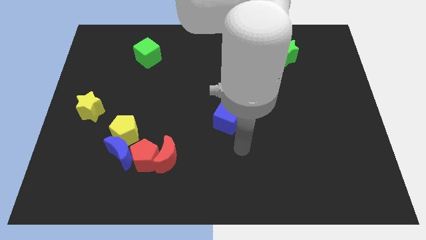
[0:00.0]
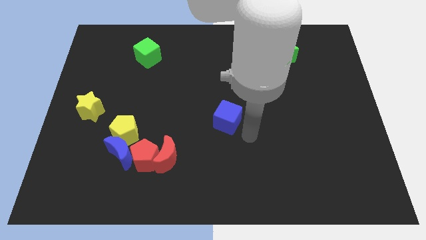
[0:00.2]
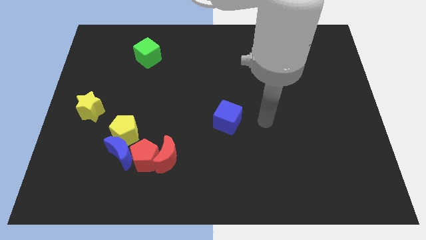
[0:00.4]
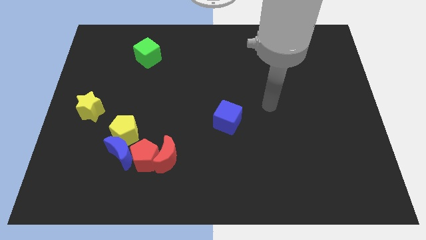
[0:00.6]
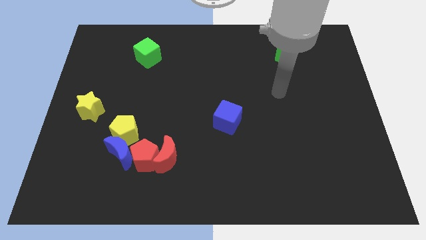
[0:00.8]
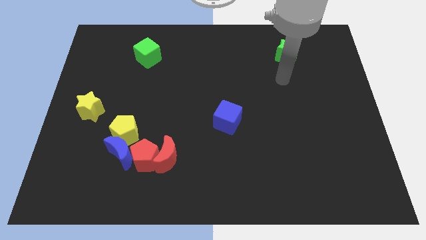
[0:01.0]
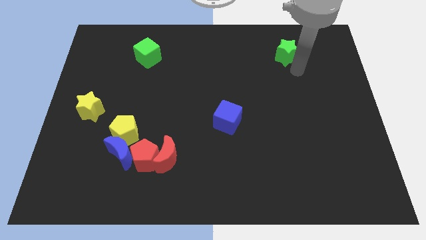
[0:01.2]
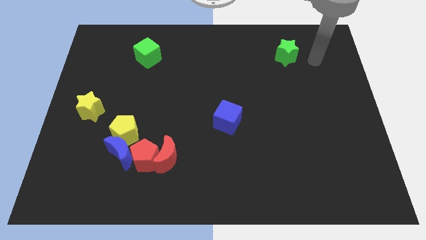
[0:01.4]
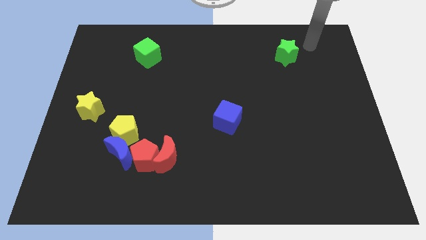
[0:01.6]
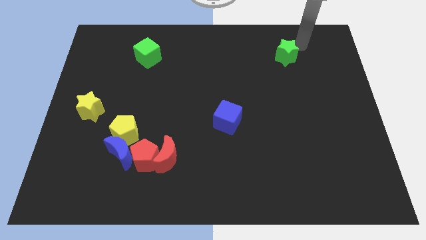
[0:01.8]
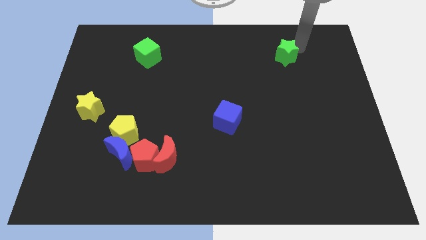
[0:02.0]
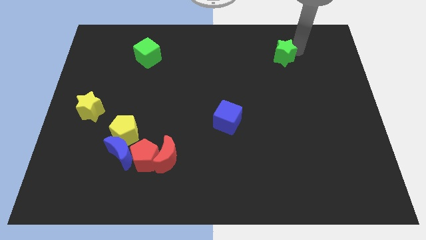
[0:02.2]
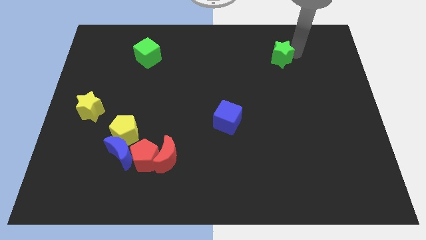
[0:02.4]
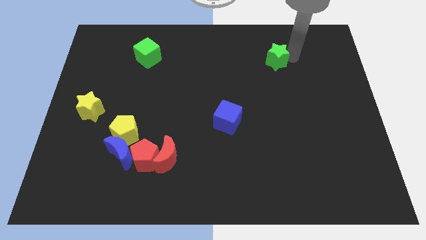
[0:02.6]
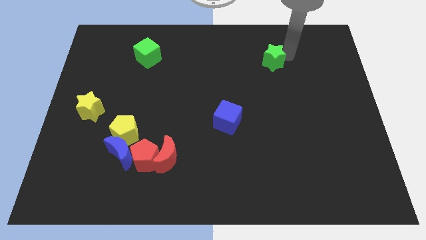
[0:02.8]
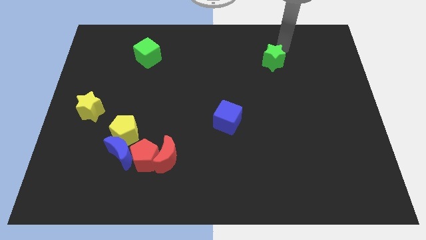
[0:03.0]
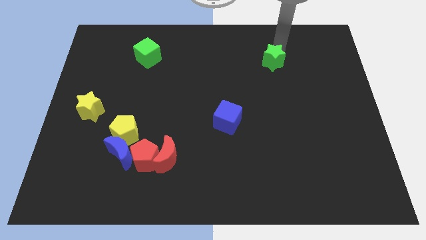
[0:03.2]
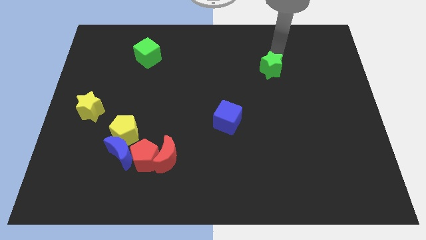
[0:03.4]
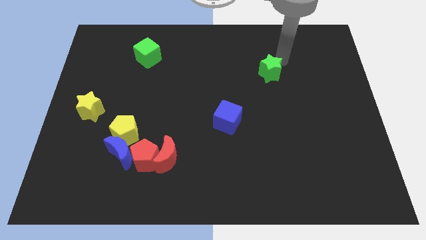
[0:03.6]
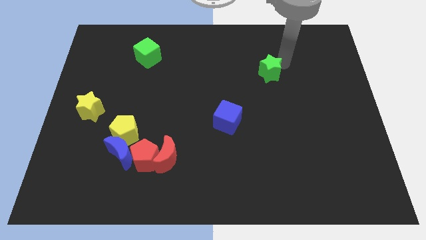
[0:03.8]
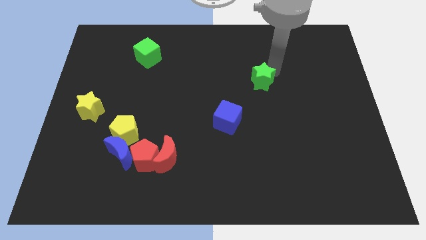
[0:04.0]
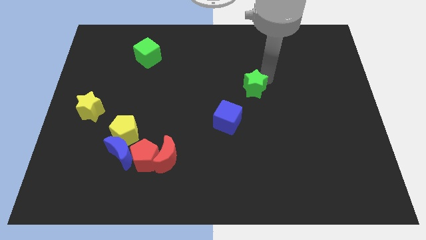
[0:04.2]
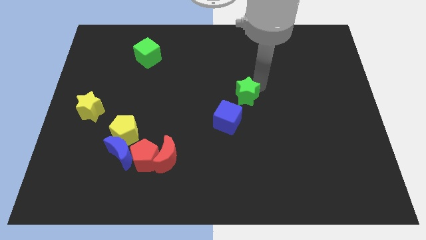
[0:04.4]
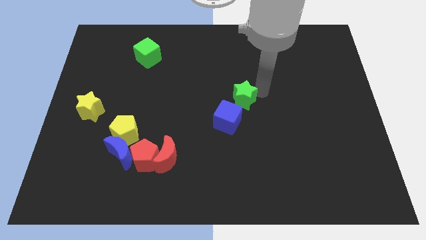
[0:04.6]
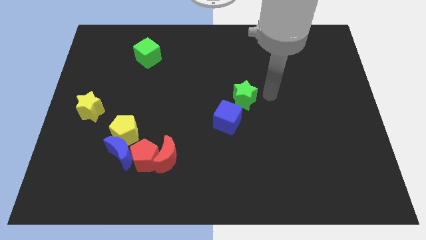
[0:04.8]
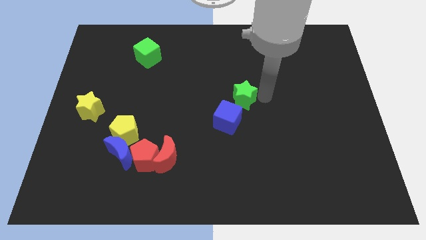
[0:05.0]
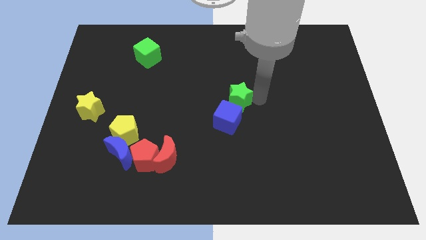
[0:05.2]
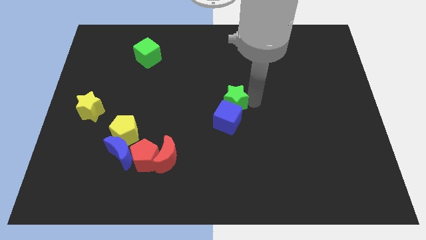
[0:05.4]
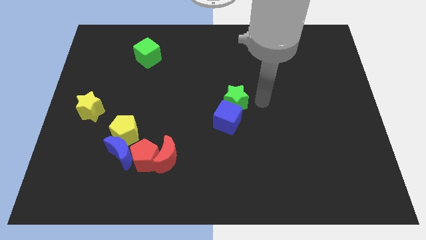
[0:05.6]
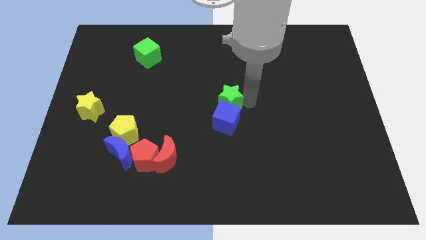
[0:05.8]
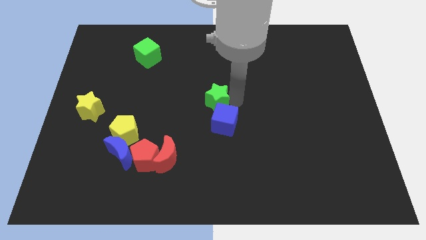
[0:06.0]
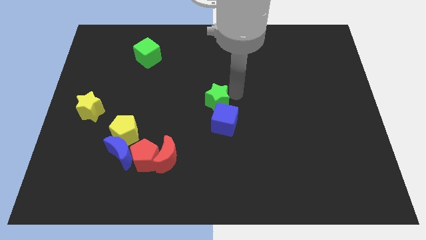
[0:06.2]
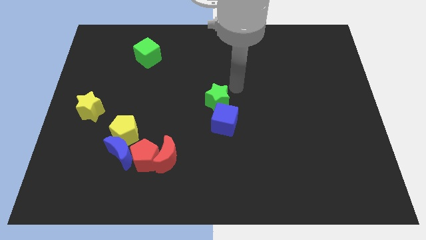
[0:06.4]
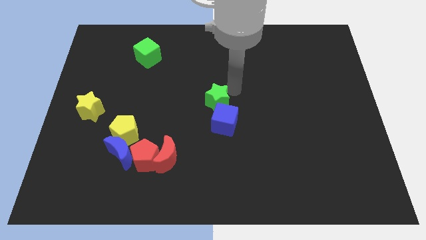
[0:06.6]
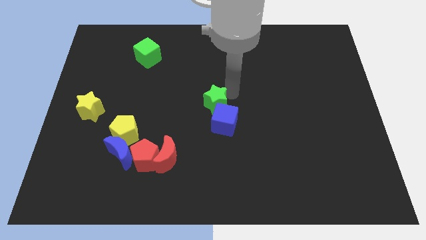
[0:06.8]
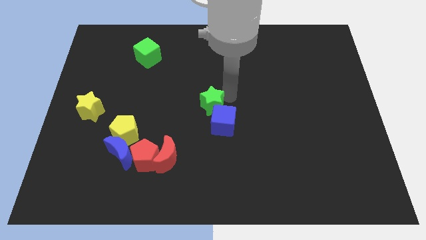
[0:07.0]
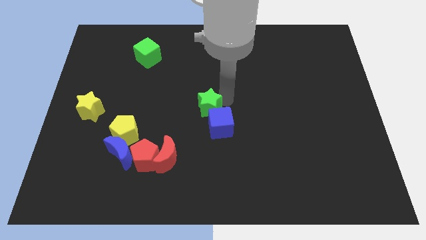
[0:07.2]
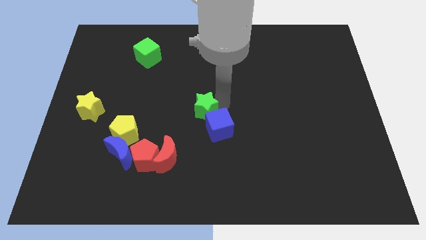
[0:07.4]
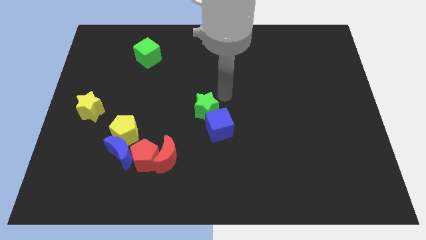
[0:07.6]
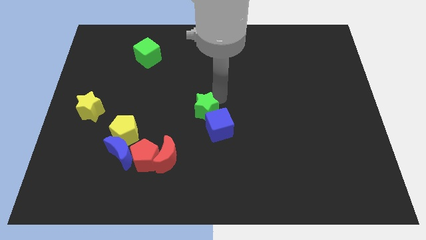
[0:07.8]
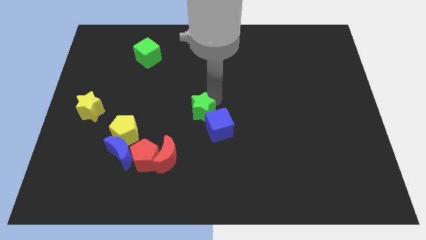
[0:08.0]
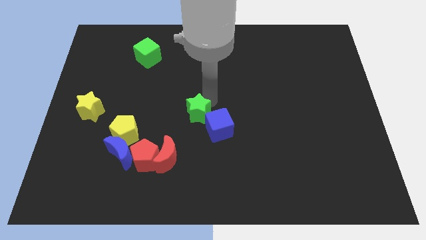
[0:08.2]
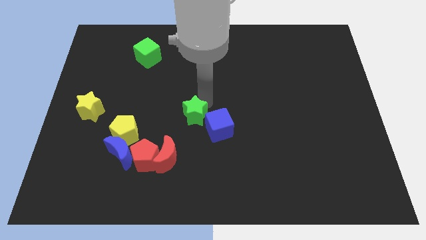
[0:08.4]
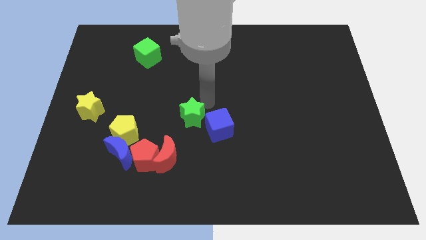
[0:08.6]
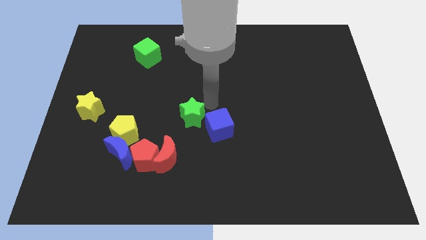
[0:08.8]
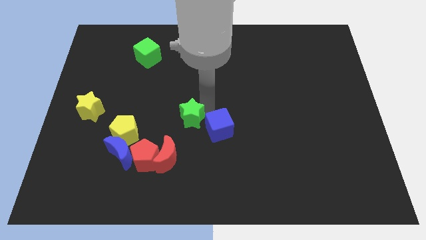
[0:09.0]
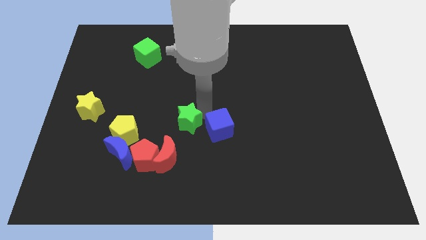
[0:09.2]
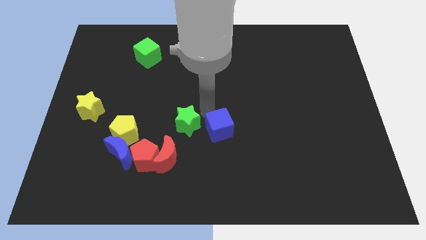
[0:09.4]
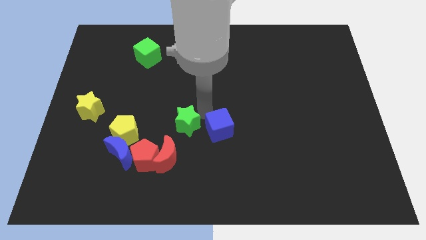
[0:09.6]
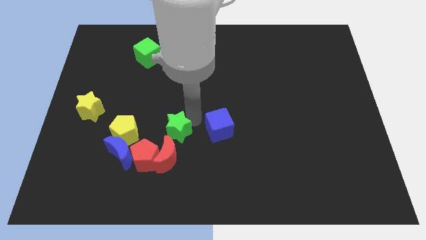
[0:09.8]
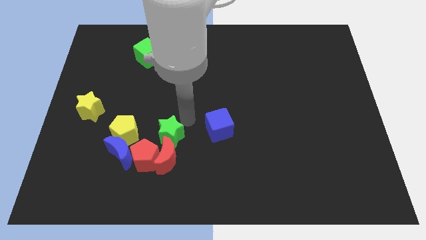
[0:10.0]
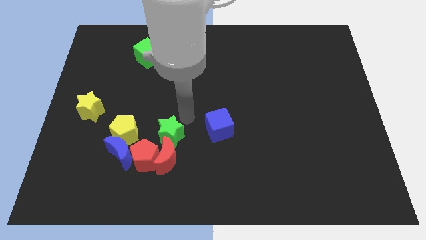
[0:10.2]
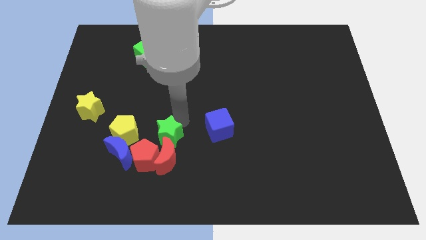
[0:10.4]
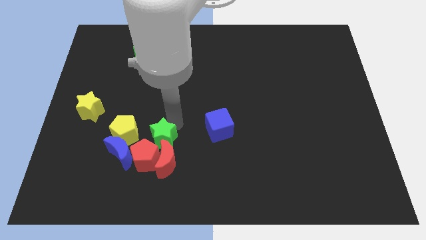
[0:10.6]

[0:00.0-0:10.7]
slide the green star towards the red pentagon

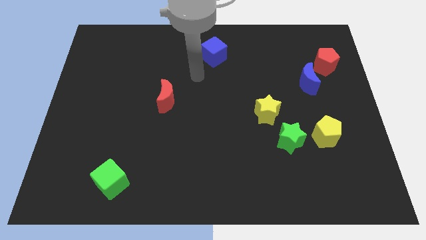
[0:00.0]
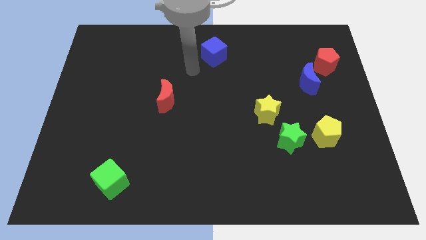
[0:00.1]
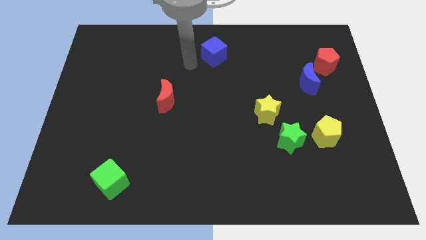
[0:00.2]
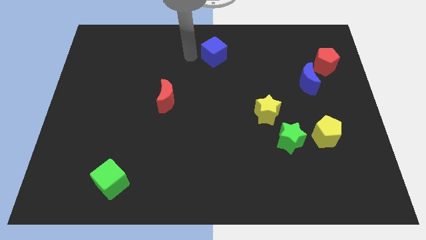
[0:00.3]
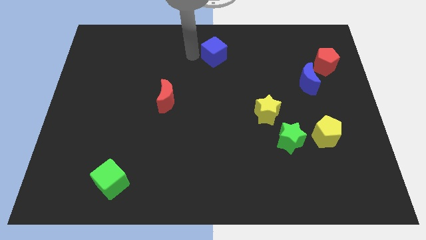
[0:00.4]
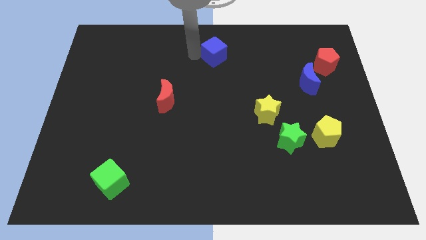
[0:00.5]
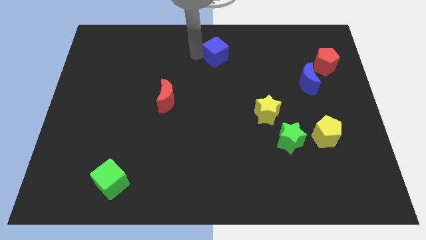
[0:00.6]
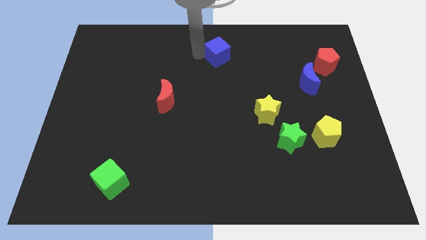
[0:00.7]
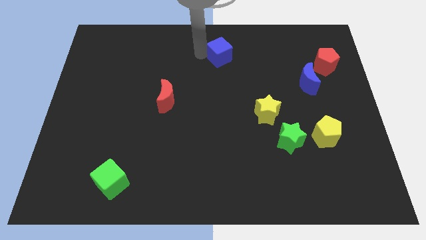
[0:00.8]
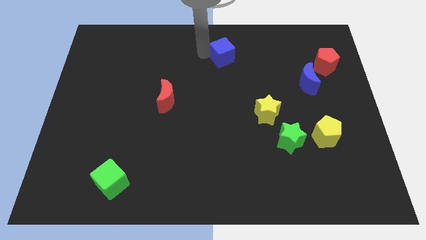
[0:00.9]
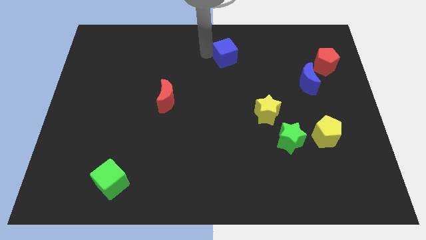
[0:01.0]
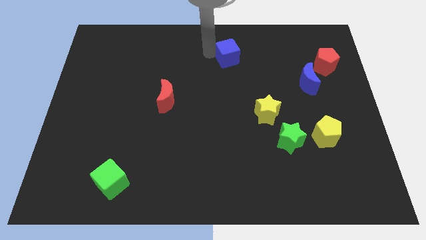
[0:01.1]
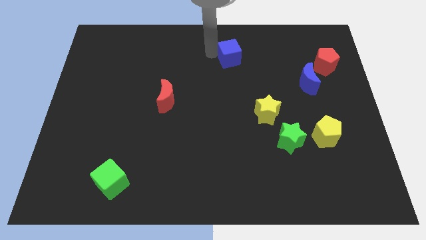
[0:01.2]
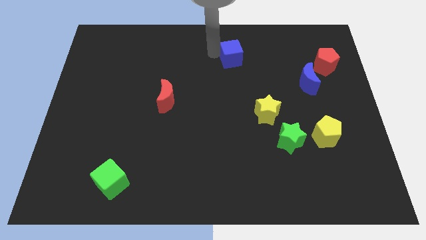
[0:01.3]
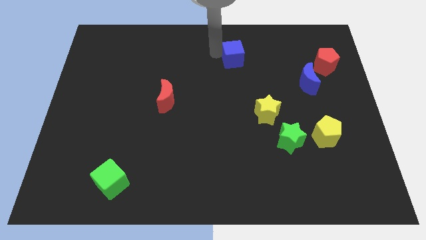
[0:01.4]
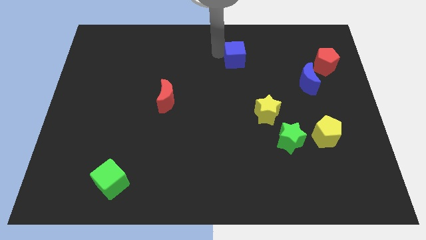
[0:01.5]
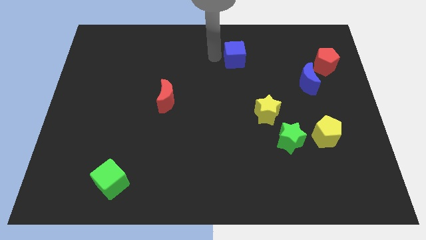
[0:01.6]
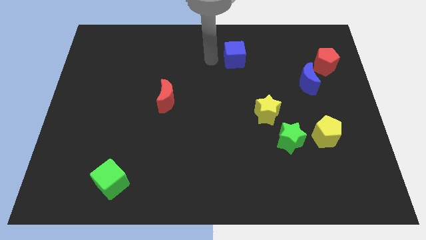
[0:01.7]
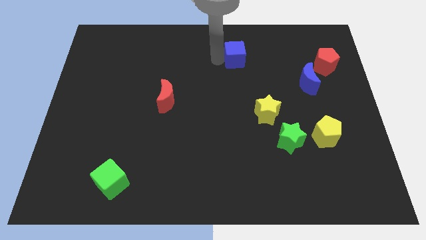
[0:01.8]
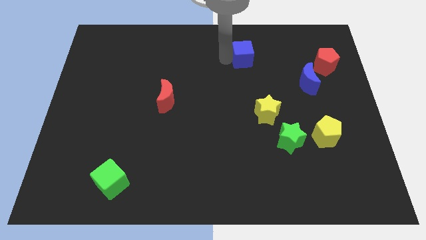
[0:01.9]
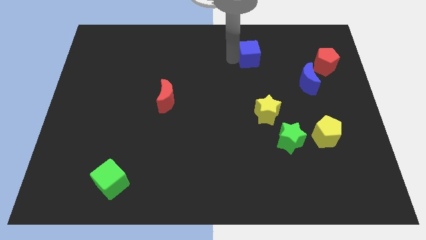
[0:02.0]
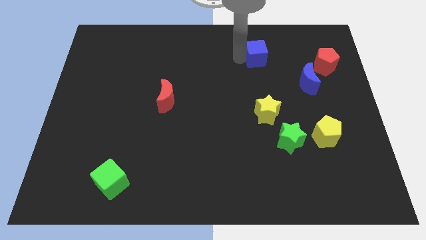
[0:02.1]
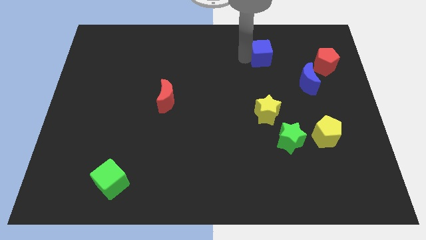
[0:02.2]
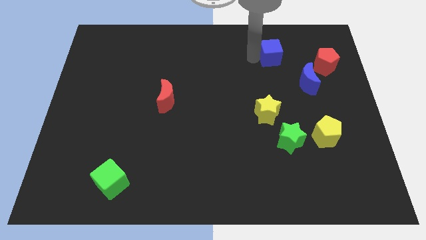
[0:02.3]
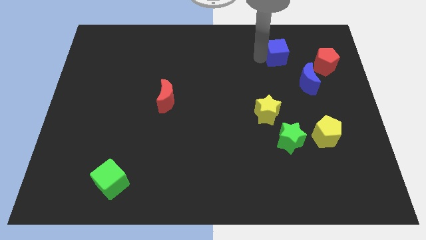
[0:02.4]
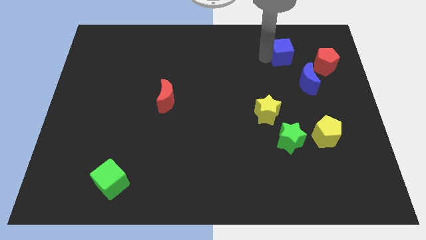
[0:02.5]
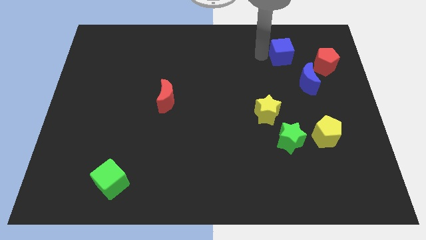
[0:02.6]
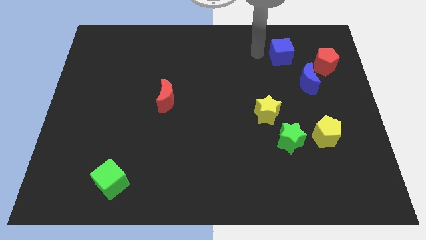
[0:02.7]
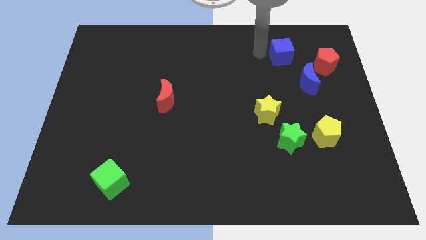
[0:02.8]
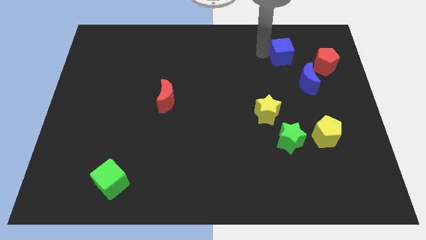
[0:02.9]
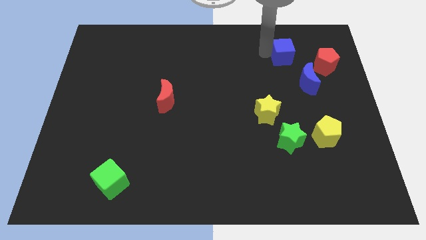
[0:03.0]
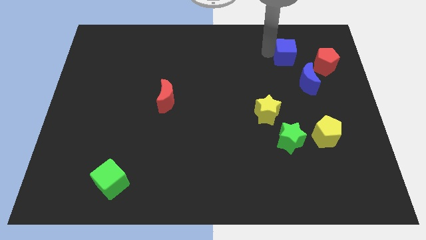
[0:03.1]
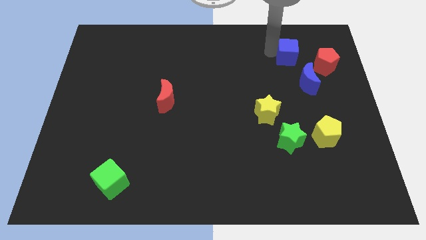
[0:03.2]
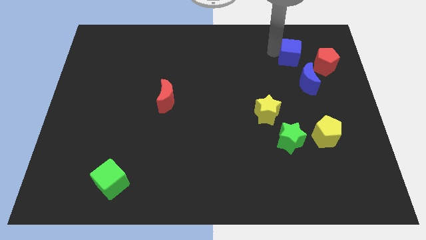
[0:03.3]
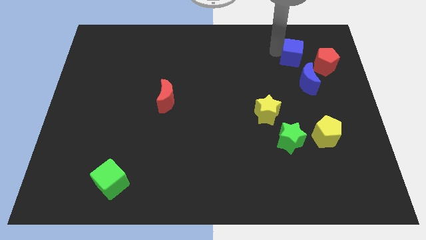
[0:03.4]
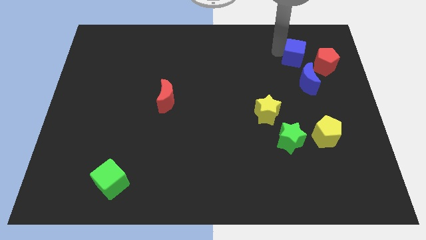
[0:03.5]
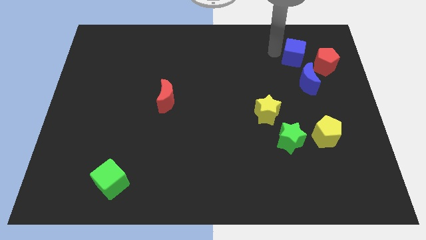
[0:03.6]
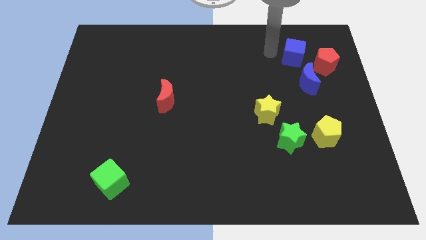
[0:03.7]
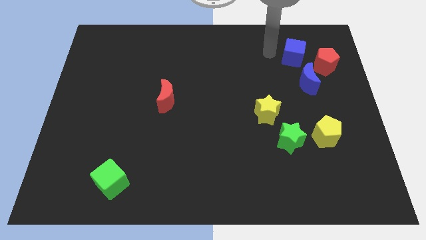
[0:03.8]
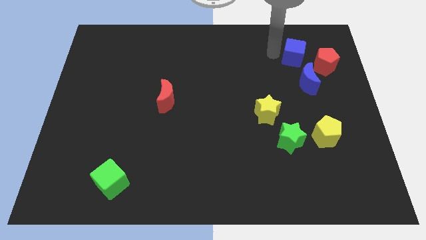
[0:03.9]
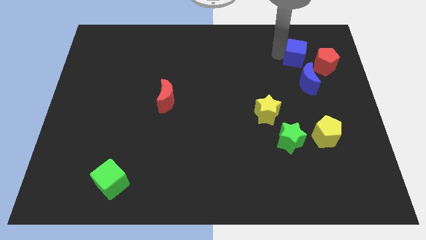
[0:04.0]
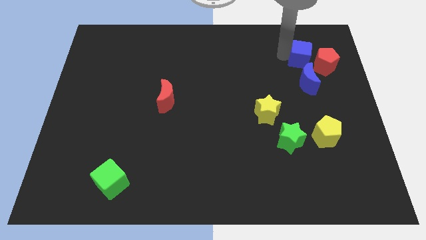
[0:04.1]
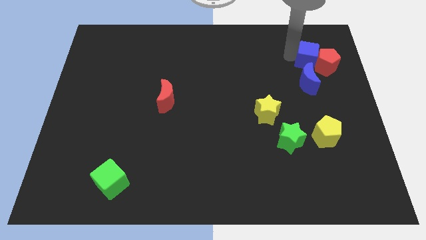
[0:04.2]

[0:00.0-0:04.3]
slide the blue cube towards the red pentagon
